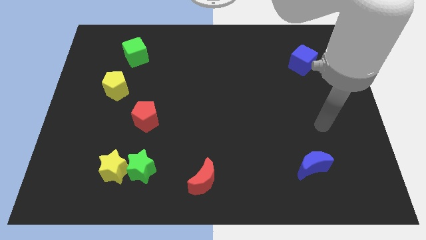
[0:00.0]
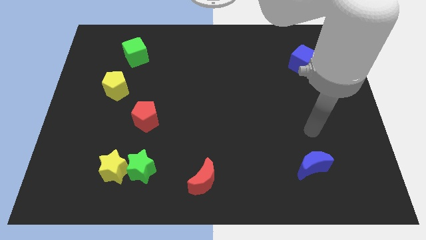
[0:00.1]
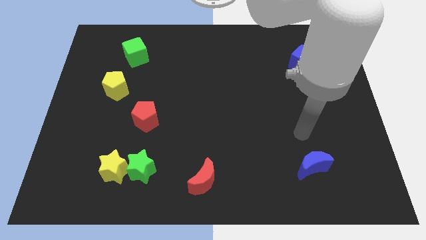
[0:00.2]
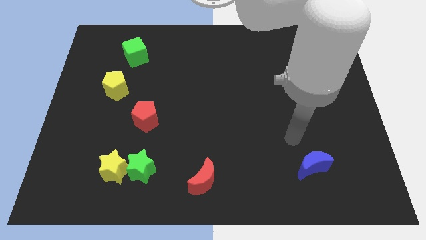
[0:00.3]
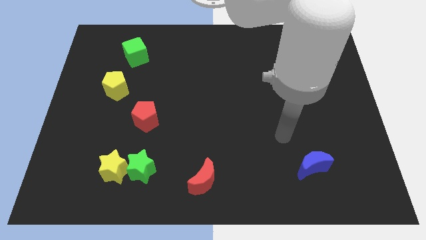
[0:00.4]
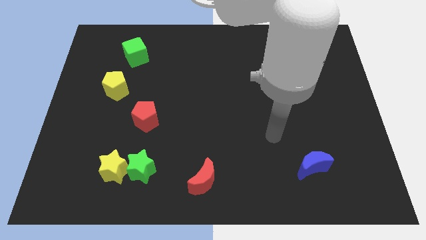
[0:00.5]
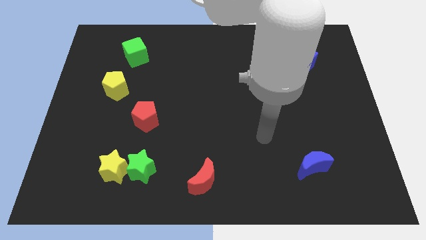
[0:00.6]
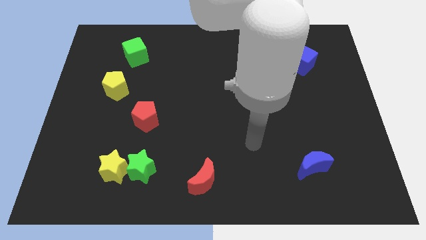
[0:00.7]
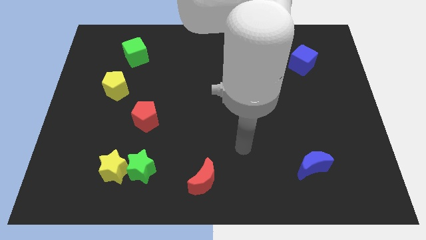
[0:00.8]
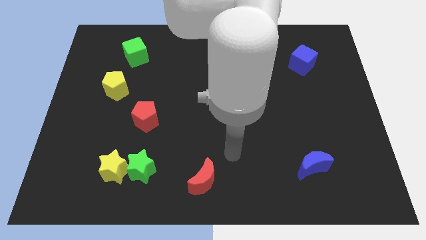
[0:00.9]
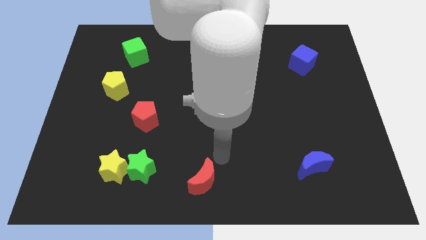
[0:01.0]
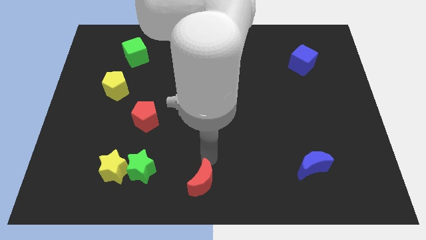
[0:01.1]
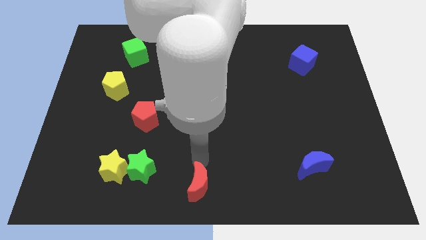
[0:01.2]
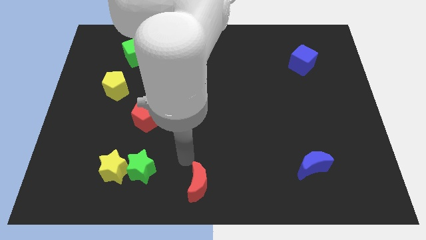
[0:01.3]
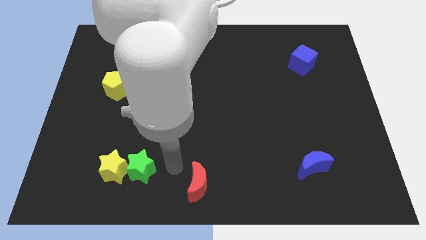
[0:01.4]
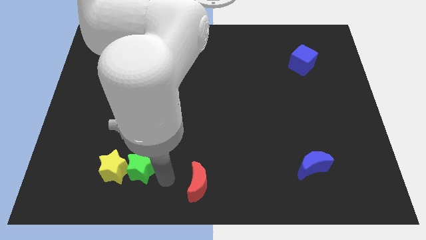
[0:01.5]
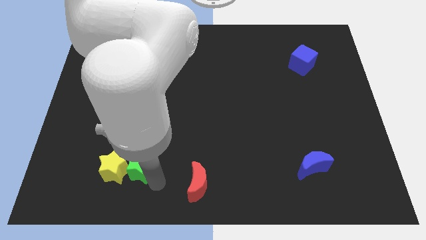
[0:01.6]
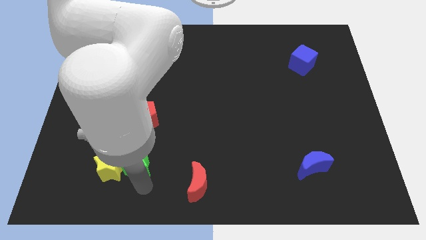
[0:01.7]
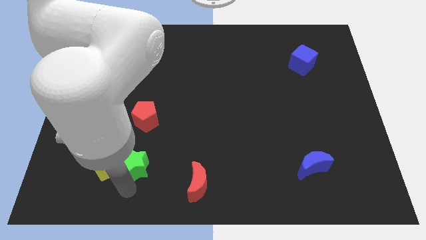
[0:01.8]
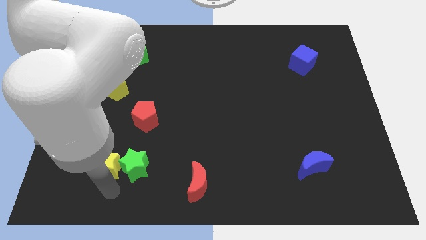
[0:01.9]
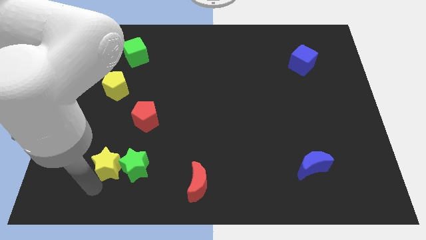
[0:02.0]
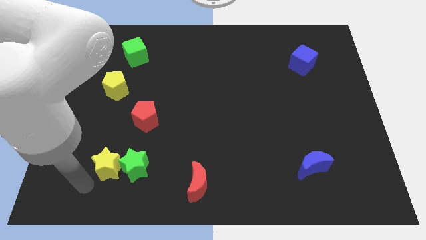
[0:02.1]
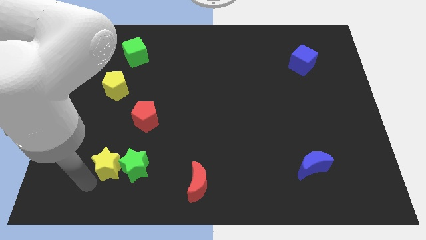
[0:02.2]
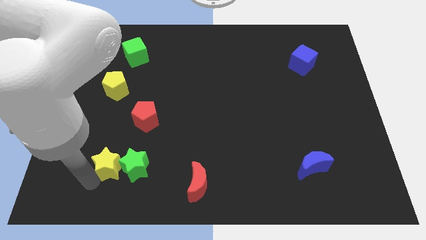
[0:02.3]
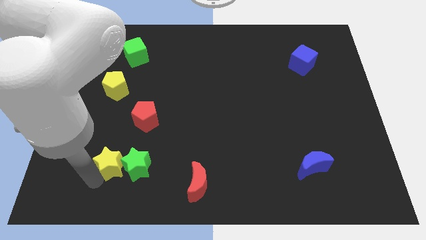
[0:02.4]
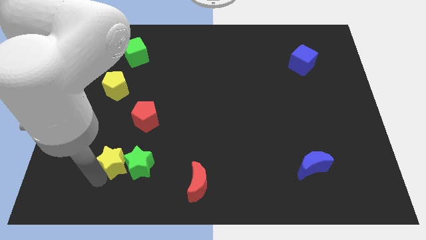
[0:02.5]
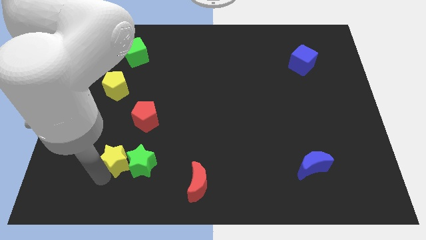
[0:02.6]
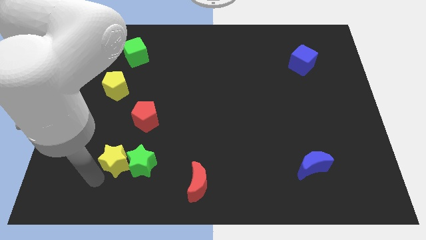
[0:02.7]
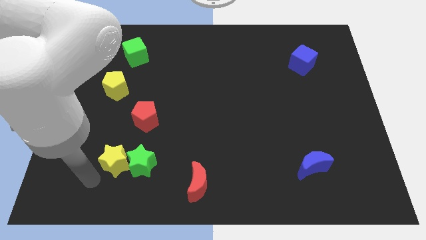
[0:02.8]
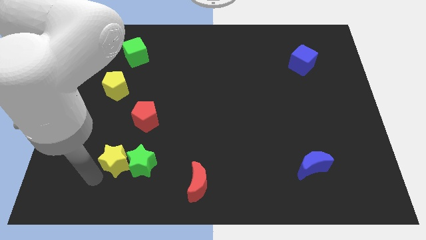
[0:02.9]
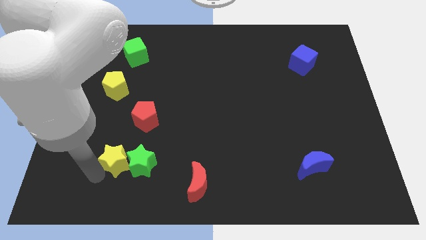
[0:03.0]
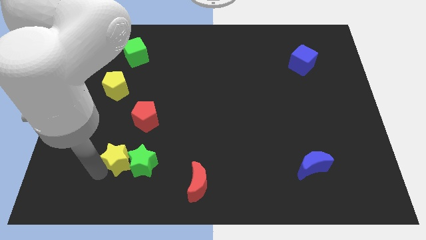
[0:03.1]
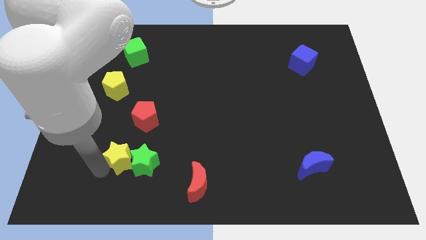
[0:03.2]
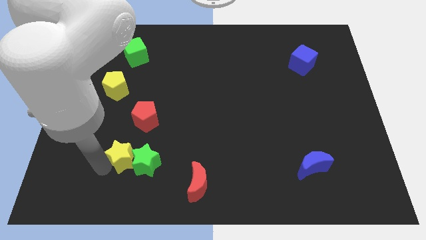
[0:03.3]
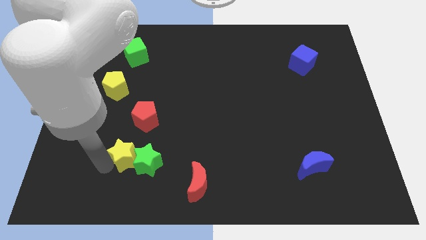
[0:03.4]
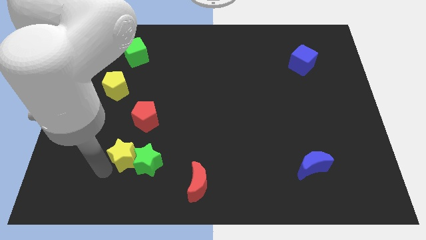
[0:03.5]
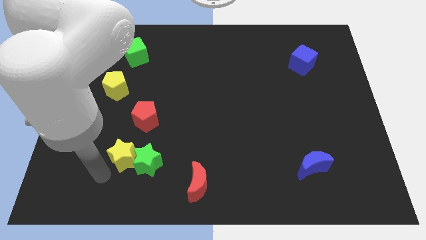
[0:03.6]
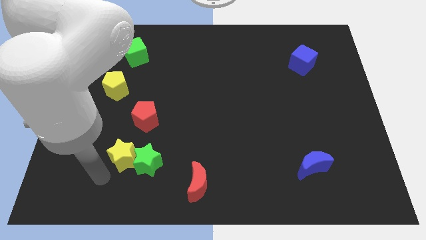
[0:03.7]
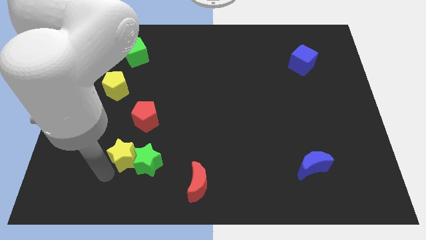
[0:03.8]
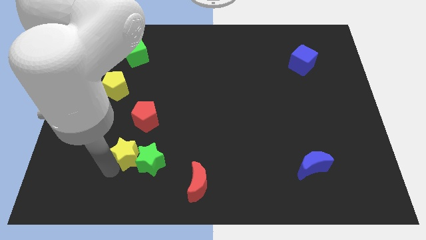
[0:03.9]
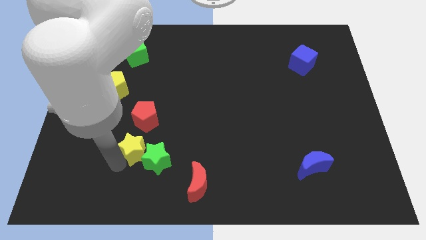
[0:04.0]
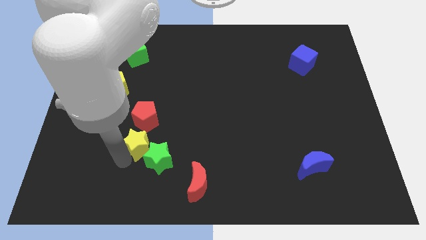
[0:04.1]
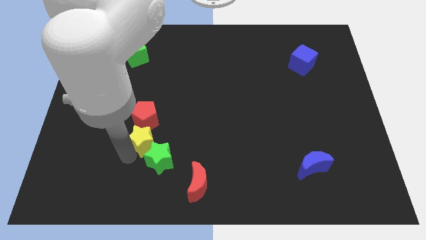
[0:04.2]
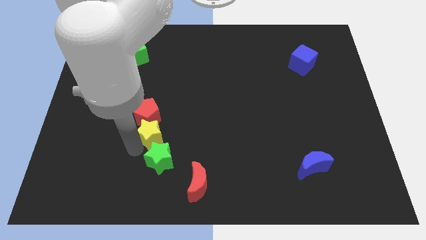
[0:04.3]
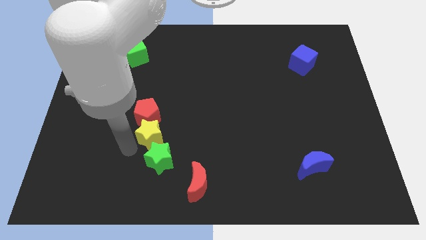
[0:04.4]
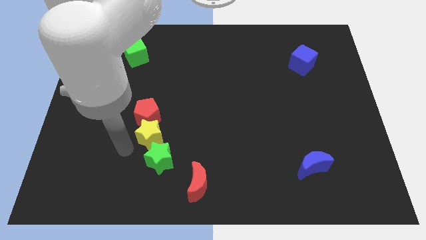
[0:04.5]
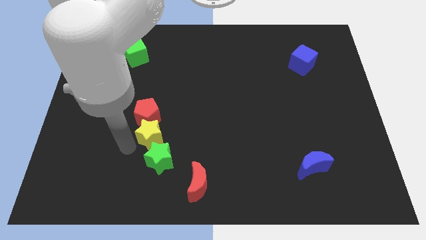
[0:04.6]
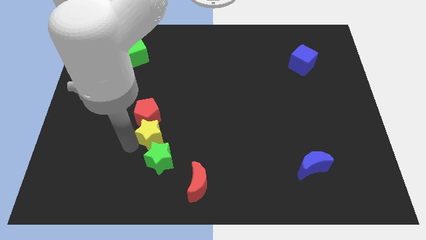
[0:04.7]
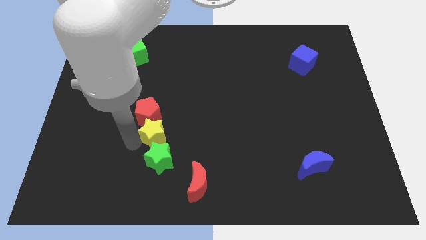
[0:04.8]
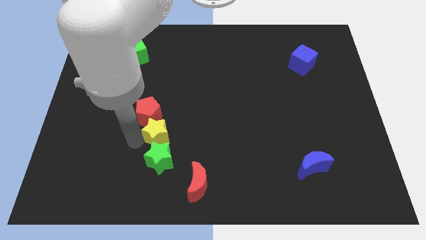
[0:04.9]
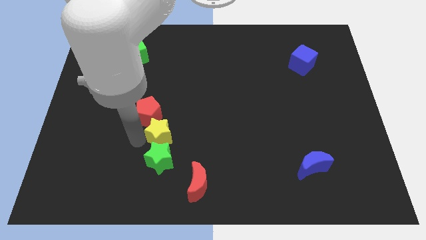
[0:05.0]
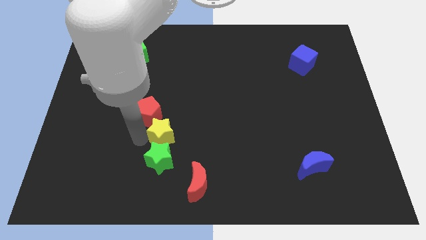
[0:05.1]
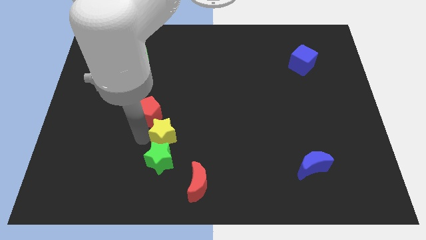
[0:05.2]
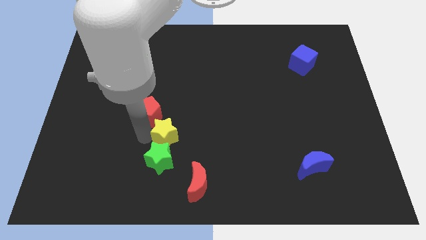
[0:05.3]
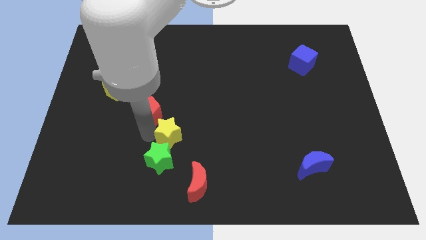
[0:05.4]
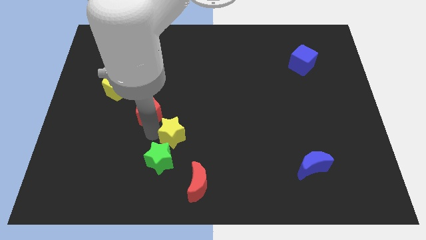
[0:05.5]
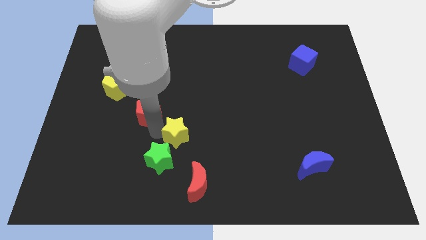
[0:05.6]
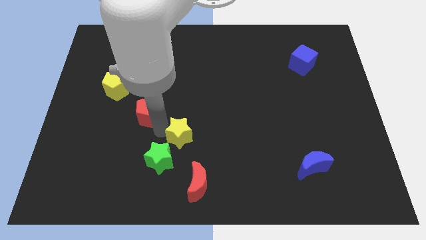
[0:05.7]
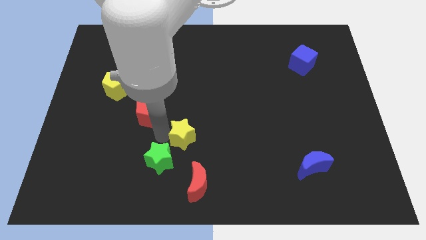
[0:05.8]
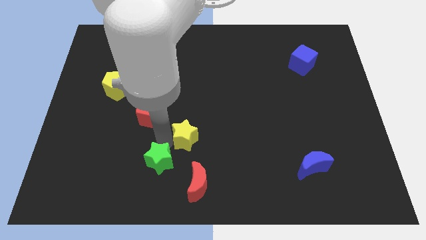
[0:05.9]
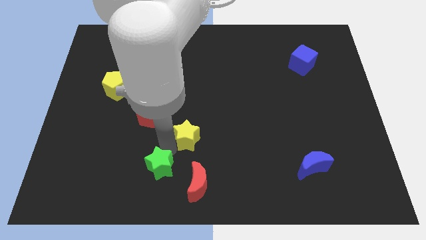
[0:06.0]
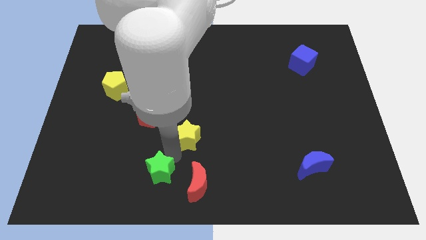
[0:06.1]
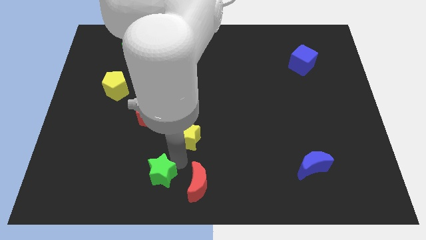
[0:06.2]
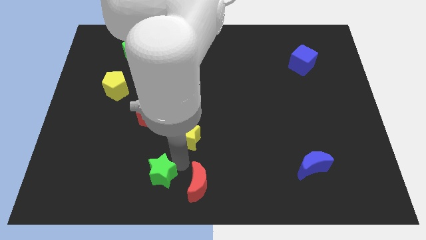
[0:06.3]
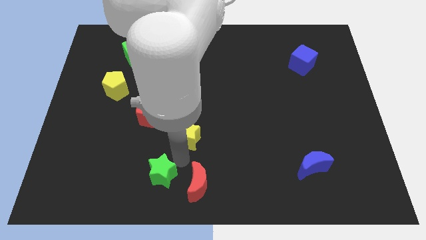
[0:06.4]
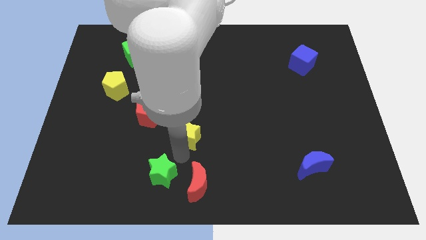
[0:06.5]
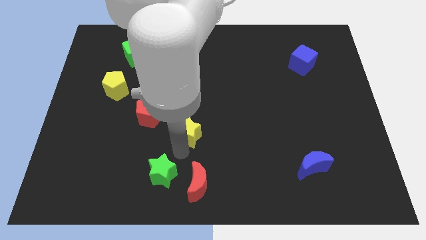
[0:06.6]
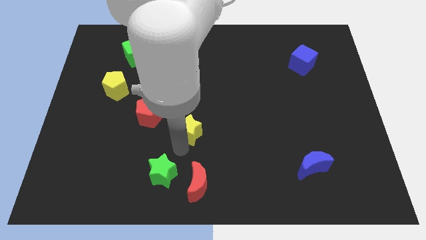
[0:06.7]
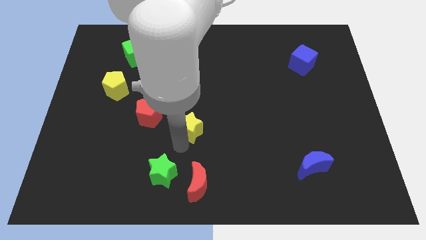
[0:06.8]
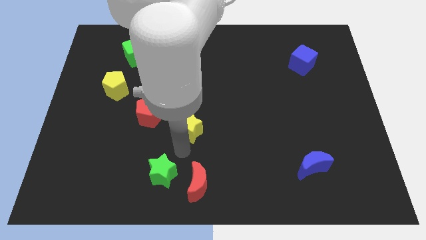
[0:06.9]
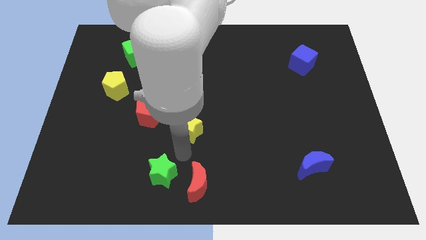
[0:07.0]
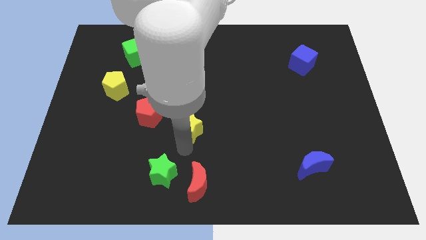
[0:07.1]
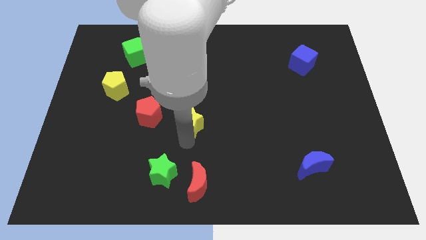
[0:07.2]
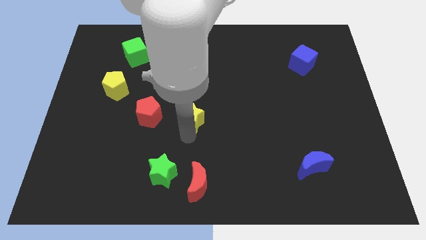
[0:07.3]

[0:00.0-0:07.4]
push the yellow star diagonally up and right

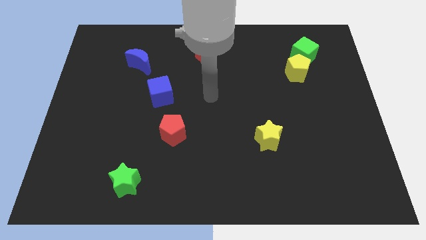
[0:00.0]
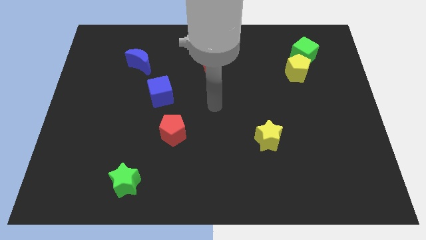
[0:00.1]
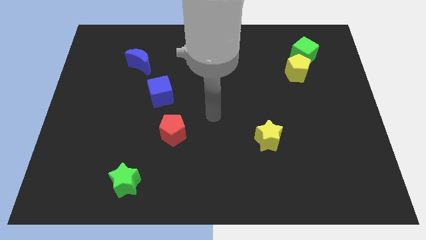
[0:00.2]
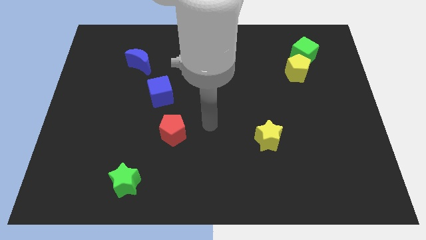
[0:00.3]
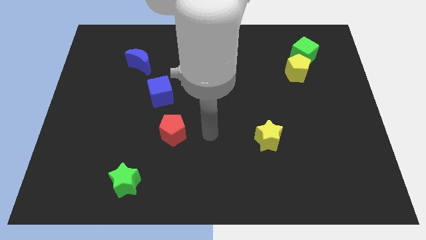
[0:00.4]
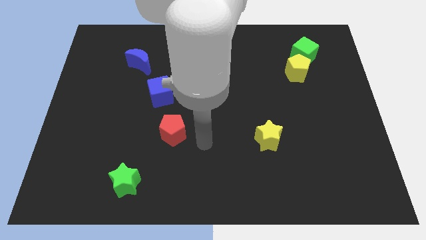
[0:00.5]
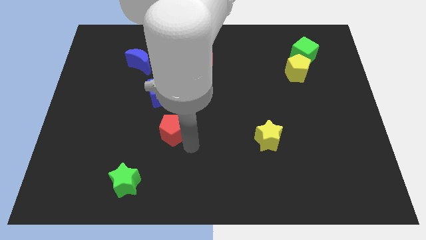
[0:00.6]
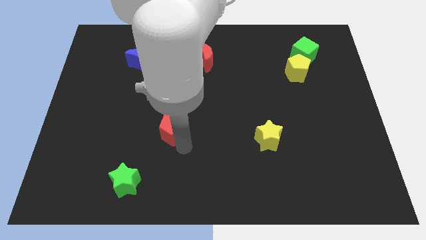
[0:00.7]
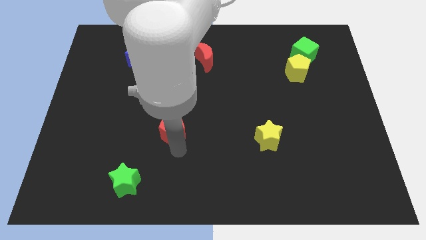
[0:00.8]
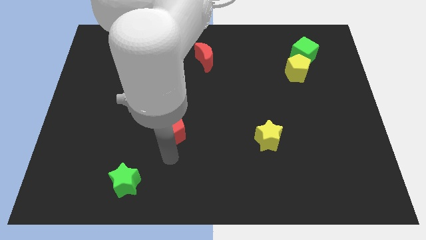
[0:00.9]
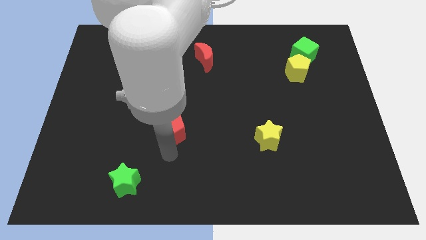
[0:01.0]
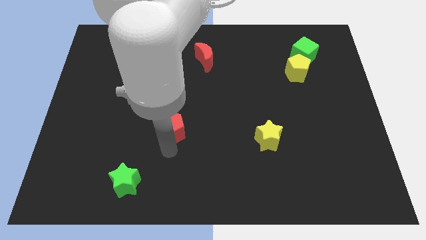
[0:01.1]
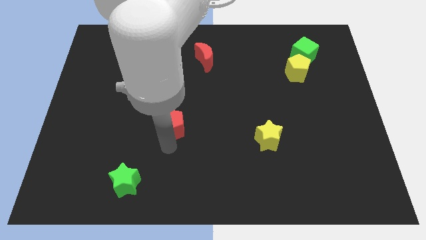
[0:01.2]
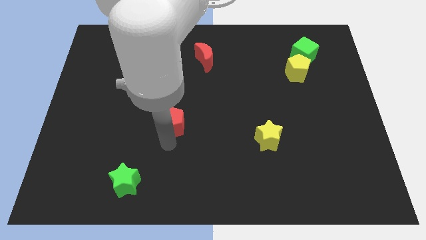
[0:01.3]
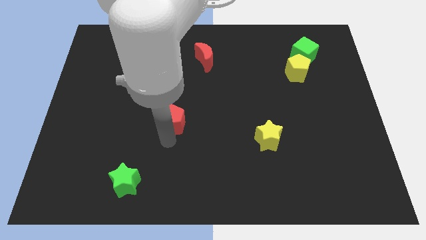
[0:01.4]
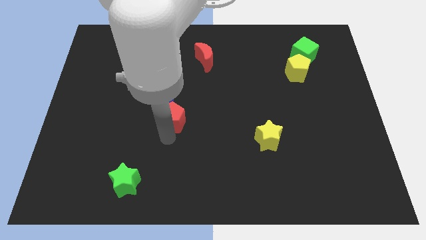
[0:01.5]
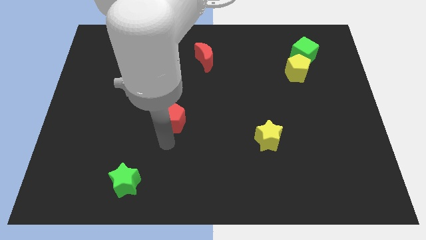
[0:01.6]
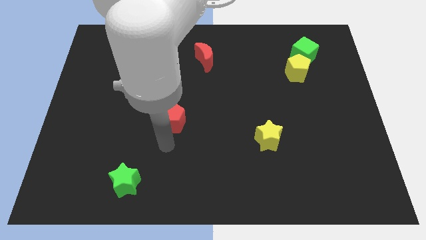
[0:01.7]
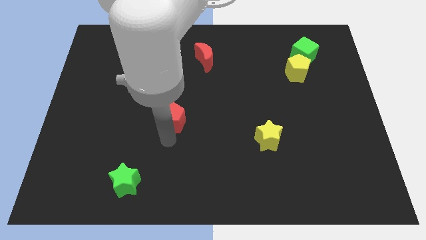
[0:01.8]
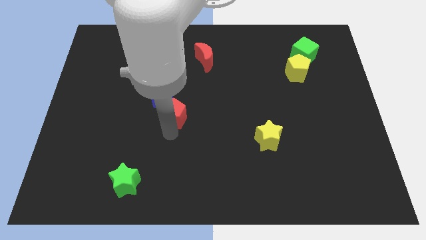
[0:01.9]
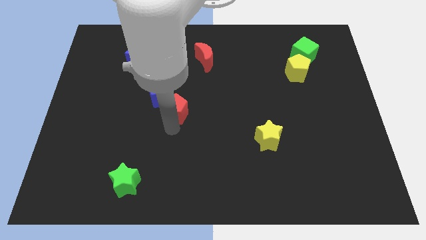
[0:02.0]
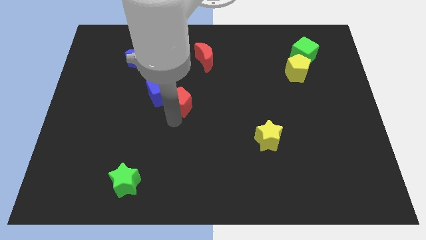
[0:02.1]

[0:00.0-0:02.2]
push the red pentagon a bit up
